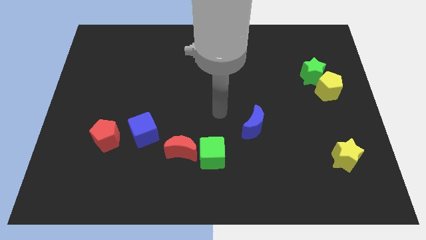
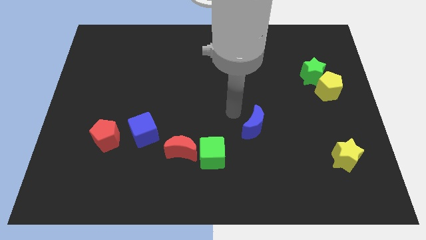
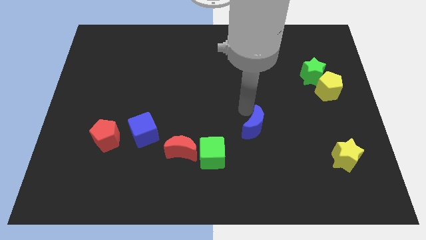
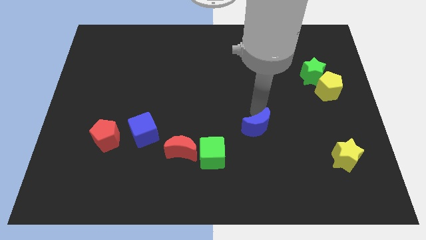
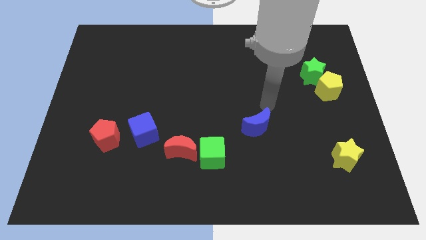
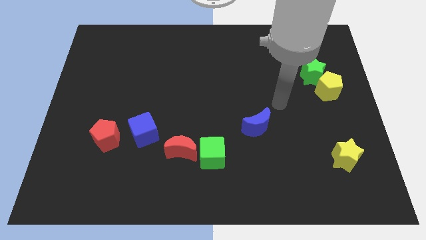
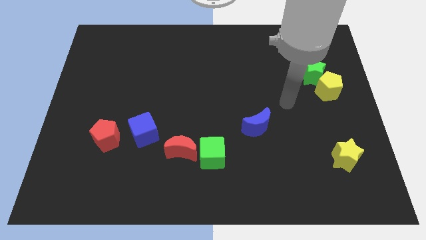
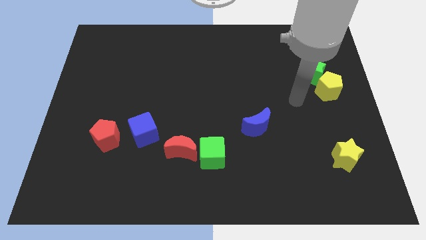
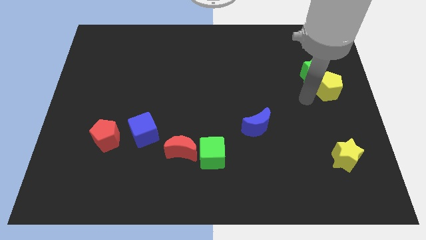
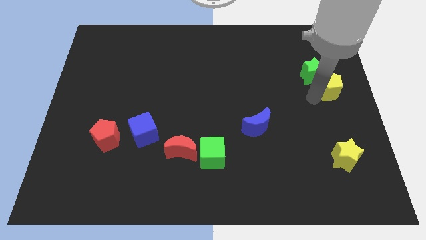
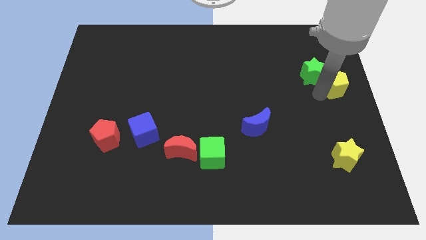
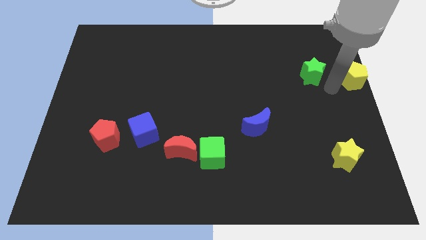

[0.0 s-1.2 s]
move the green star away from the yellow pentagon

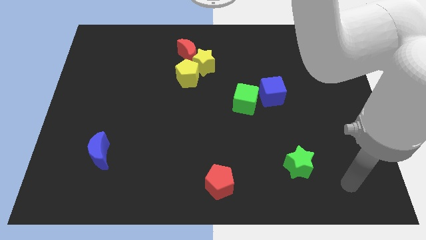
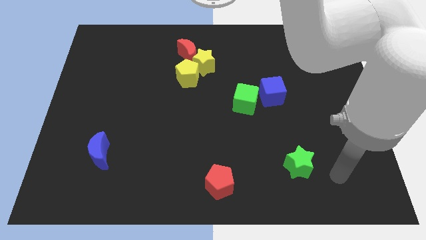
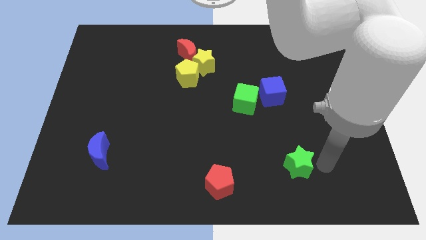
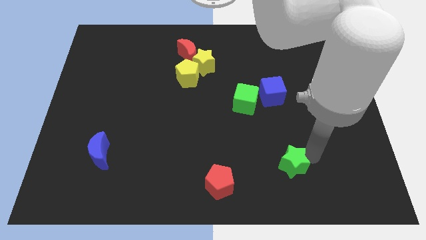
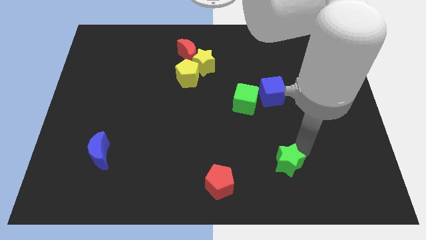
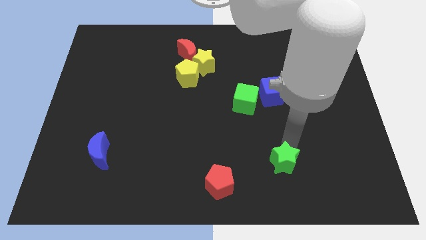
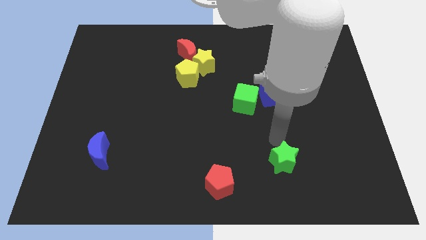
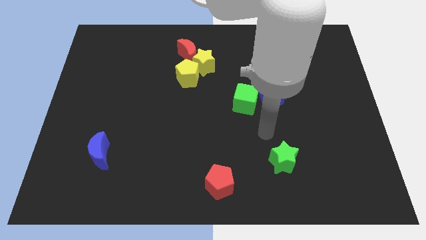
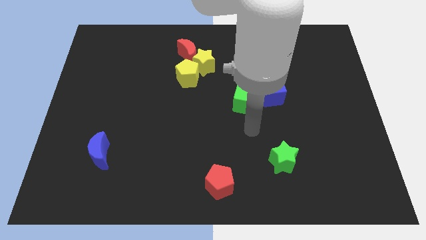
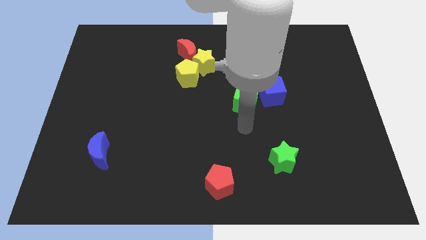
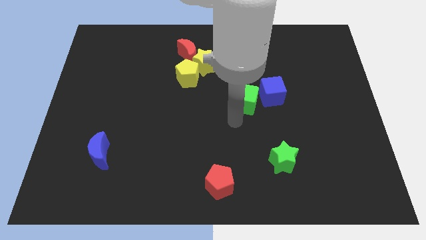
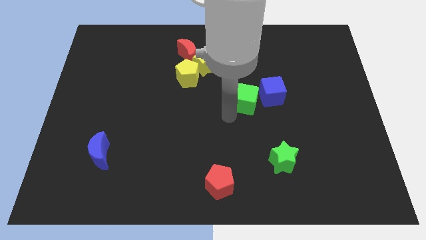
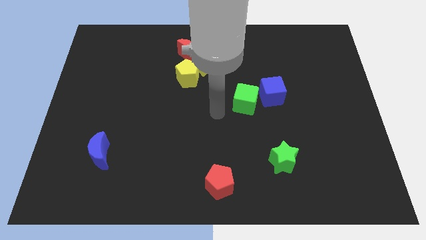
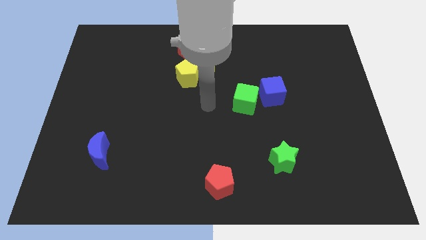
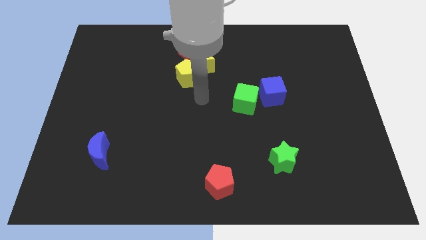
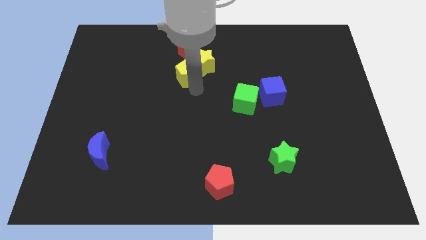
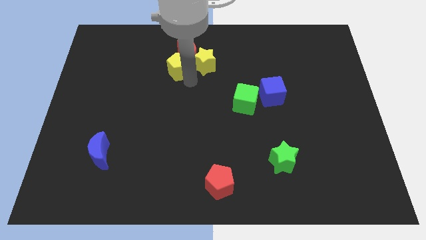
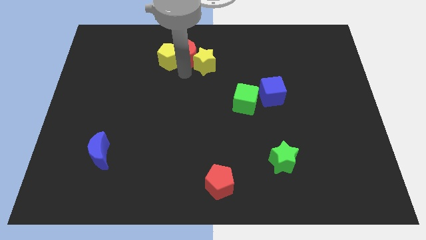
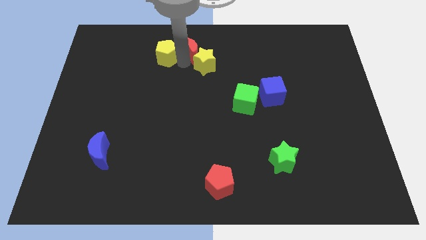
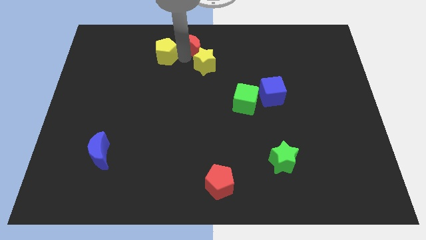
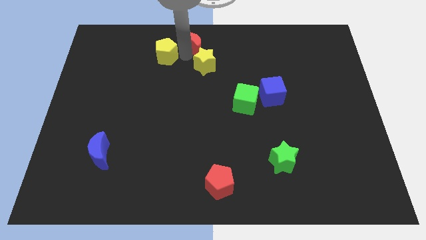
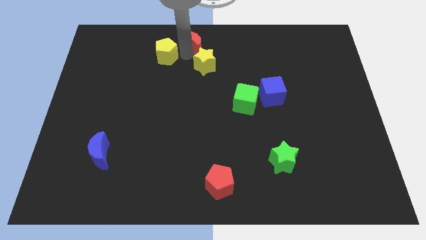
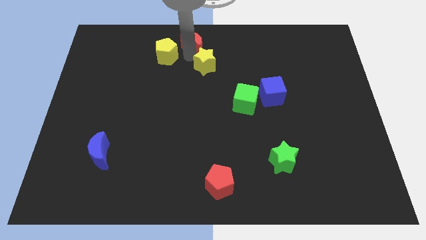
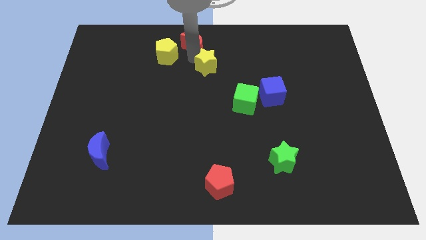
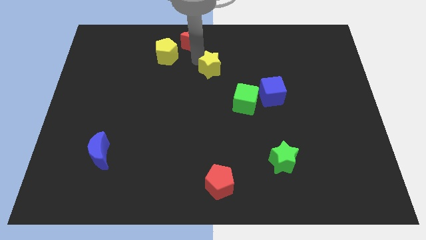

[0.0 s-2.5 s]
move the yellow star away from the red moon and yellow pentagon

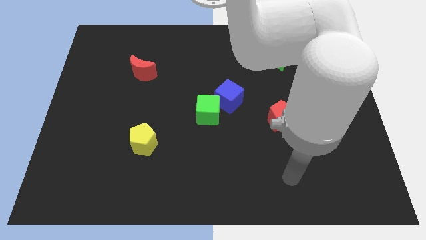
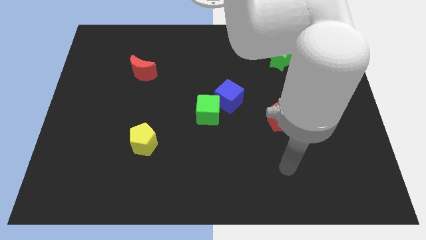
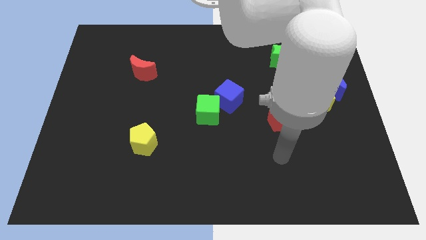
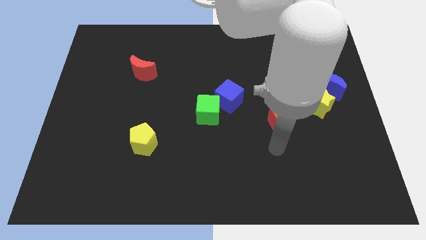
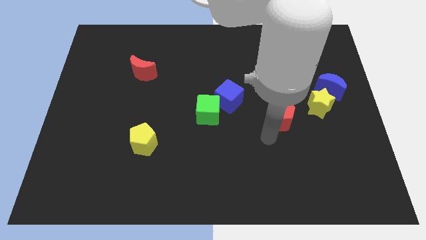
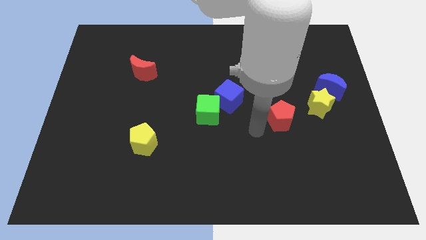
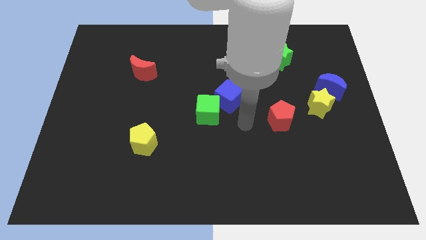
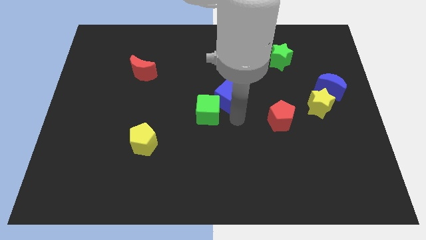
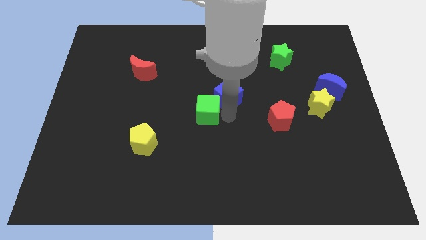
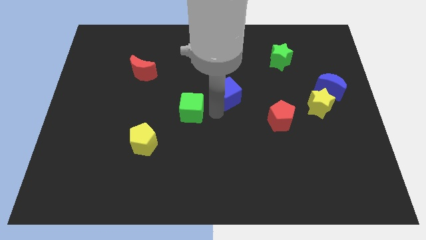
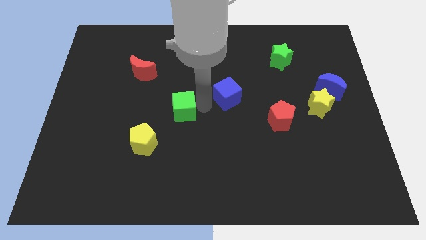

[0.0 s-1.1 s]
move the blue cube away from the green cube

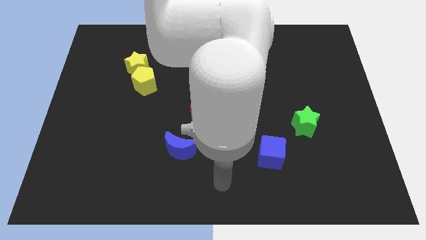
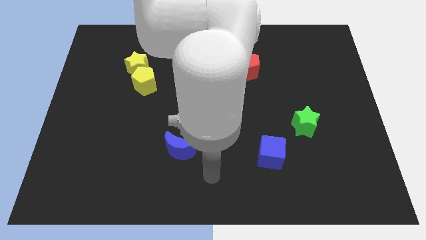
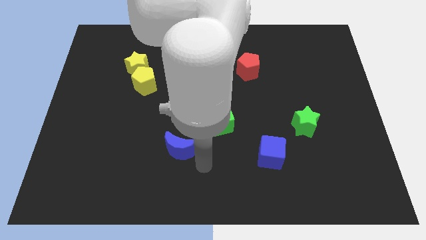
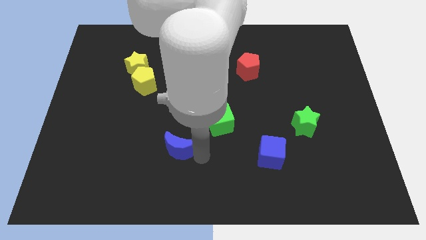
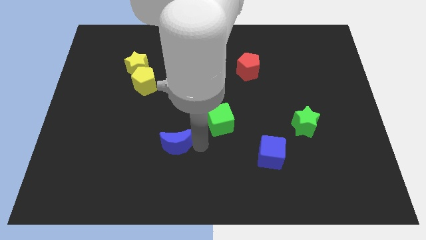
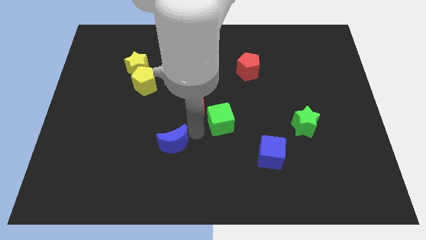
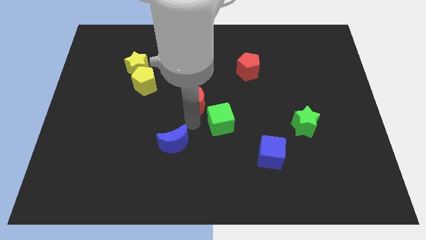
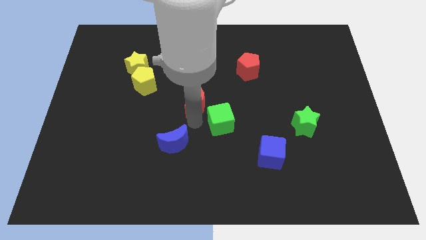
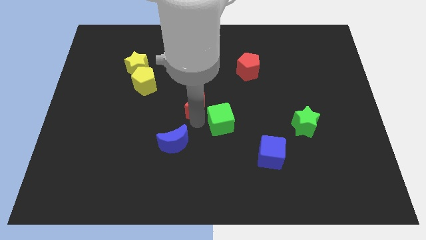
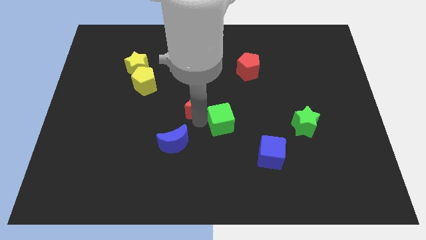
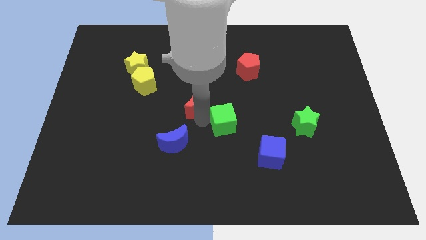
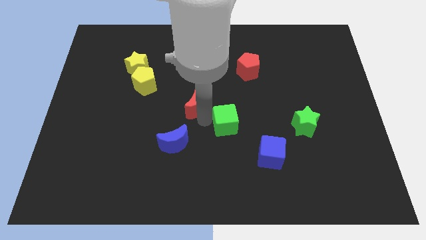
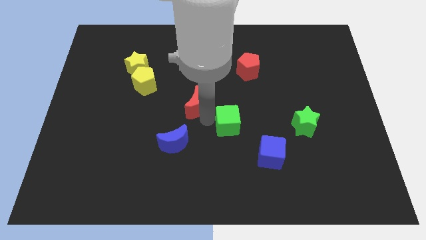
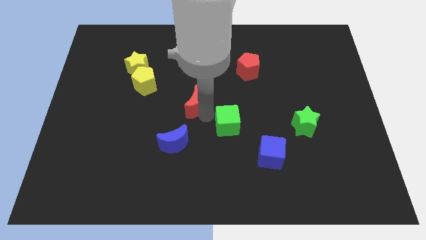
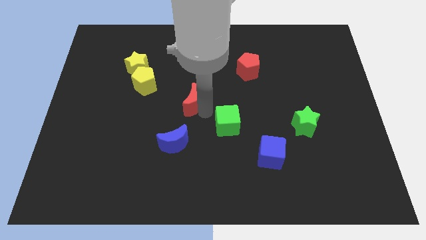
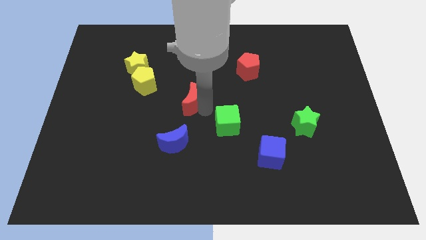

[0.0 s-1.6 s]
move the green cube away from the red moon

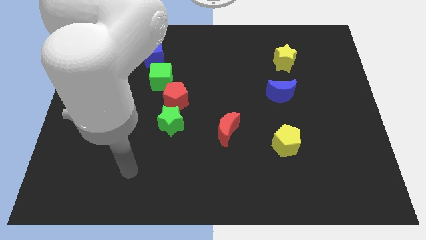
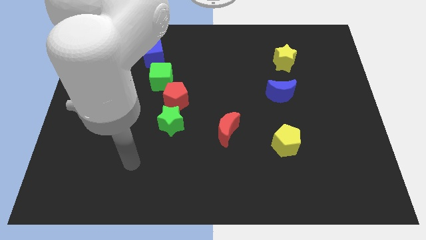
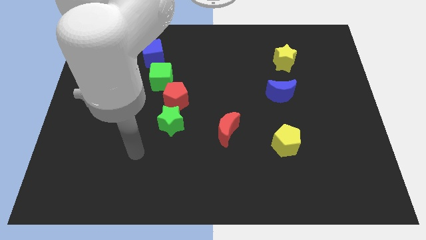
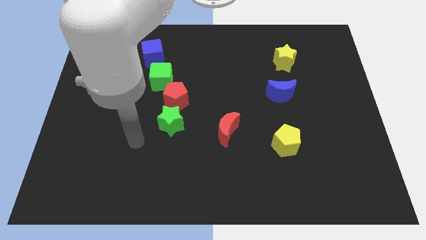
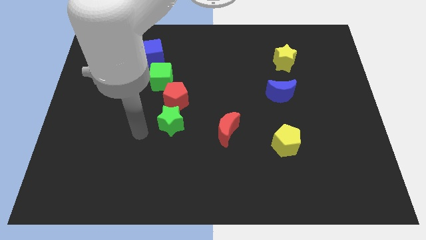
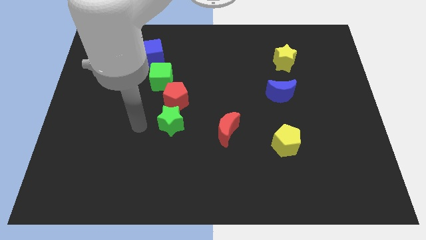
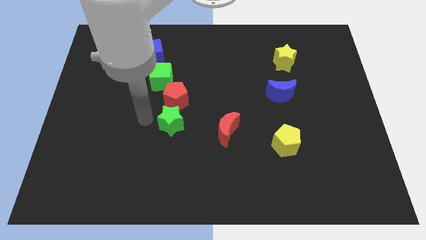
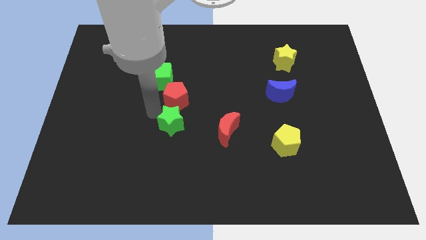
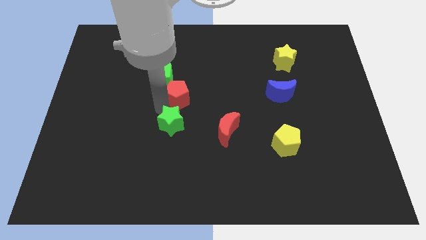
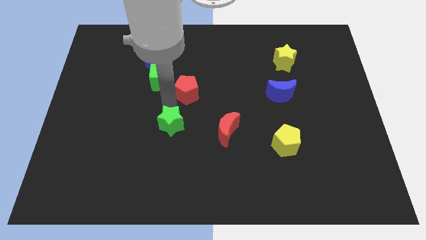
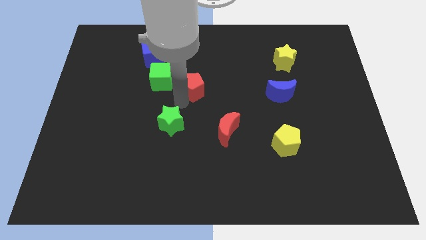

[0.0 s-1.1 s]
pull the green star apart from the red pentagon

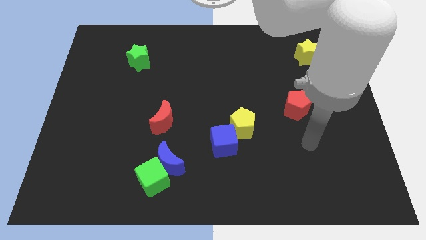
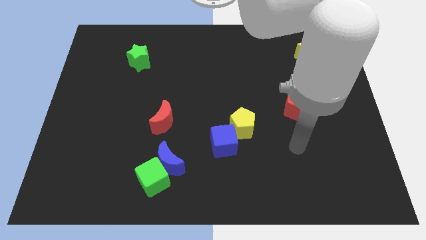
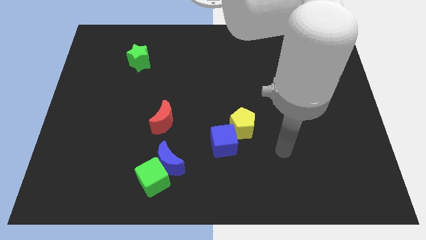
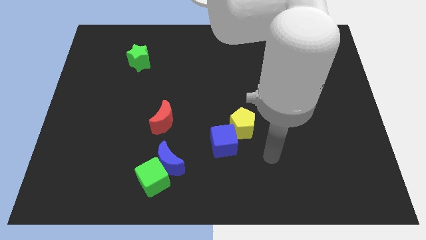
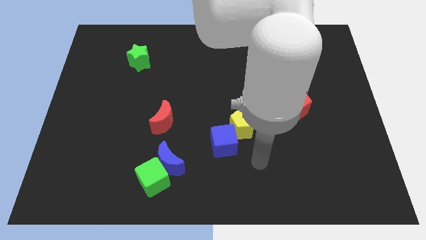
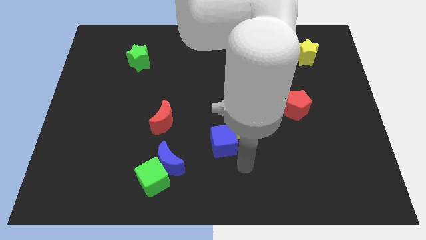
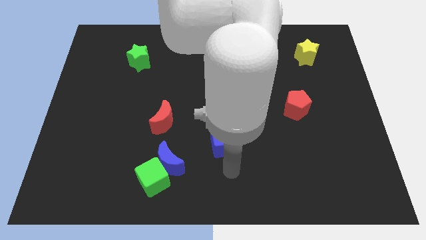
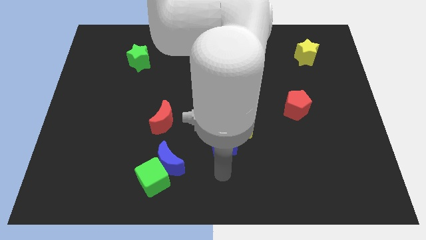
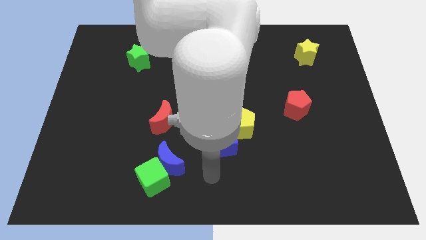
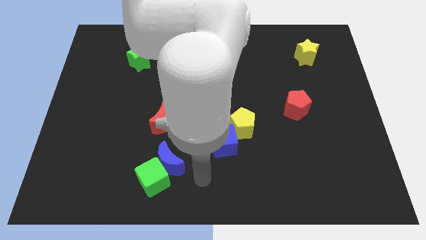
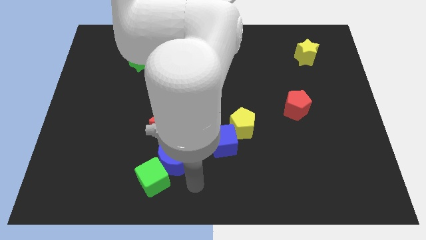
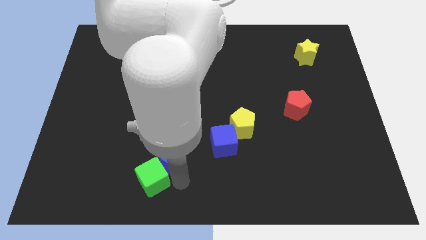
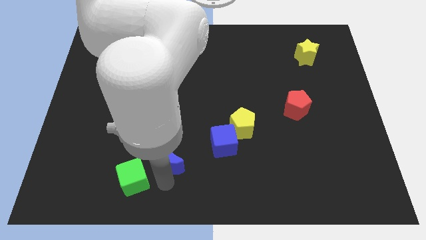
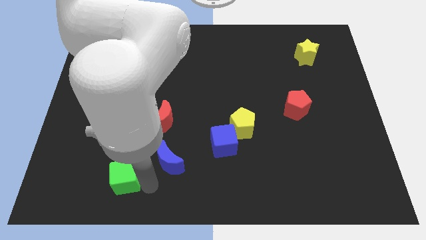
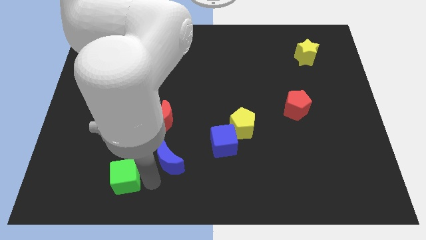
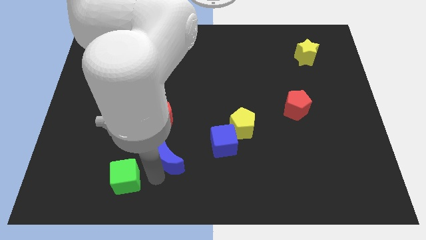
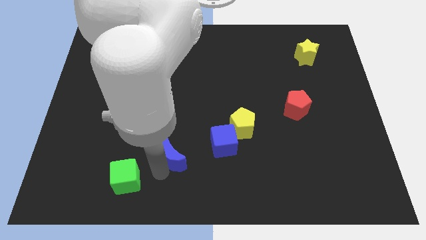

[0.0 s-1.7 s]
separate the blue moon from the green cube
